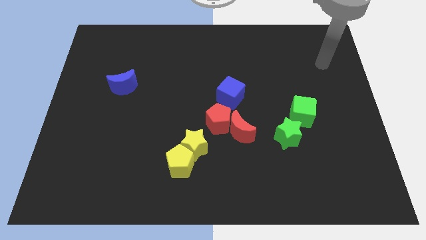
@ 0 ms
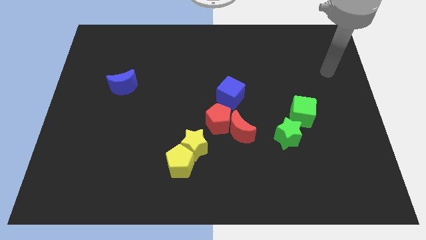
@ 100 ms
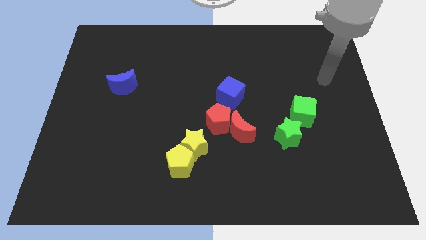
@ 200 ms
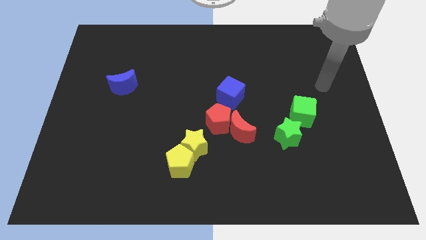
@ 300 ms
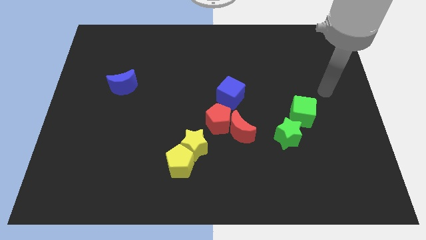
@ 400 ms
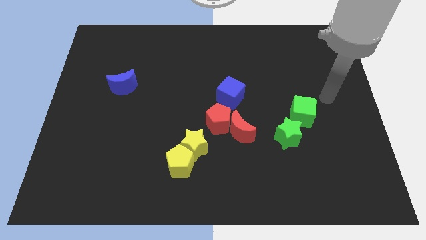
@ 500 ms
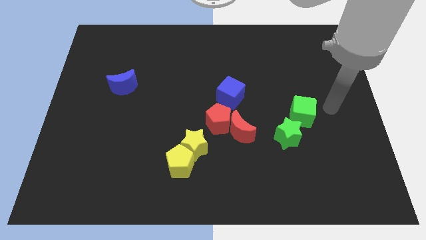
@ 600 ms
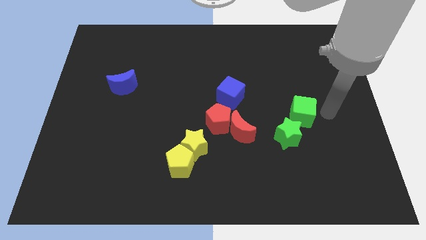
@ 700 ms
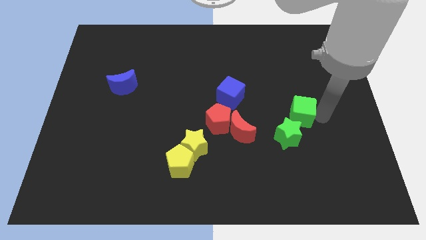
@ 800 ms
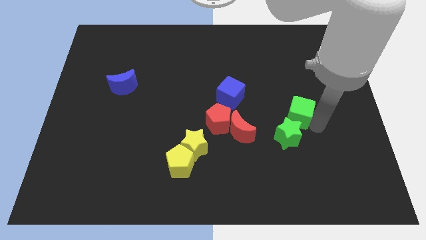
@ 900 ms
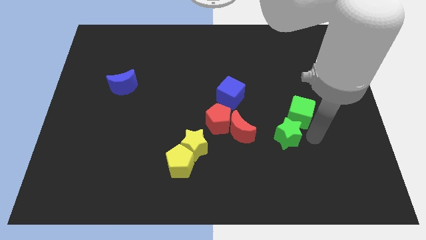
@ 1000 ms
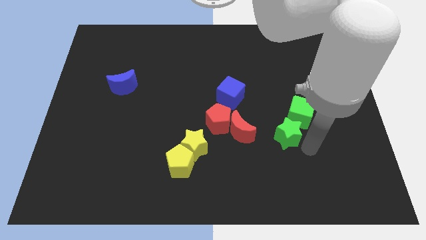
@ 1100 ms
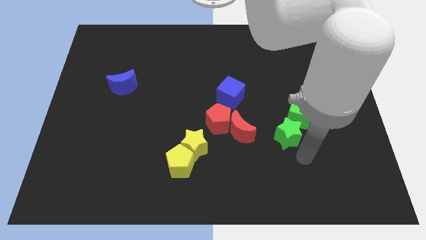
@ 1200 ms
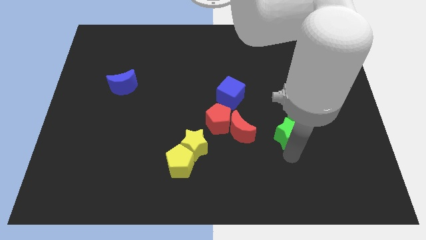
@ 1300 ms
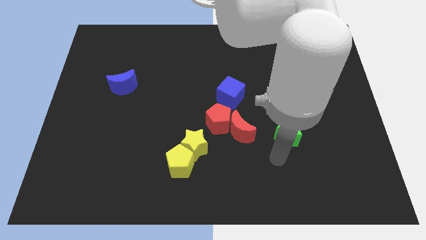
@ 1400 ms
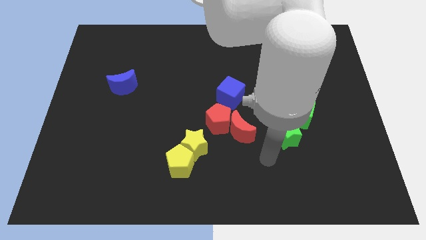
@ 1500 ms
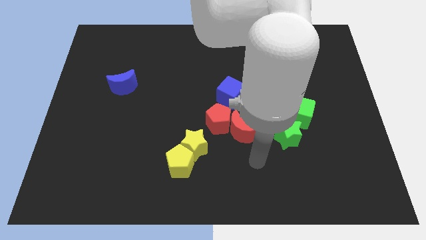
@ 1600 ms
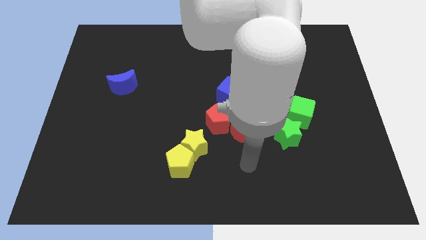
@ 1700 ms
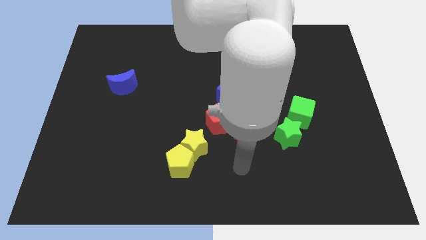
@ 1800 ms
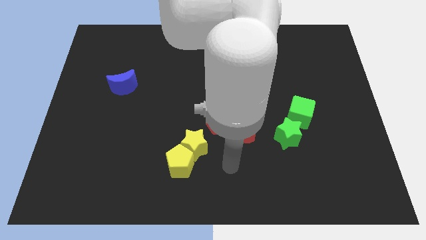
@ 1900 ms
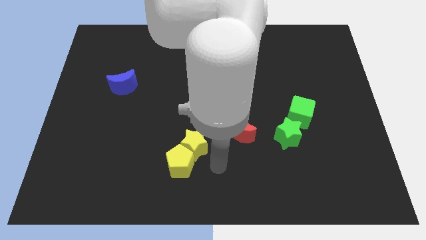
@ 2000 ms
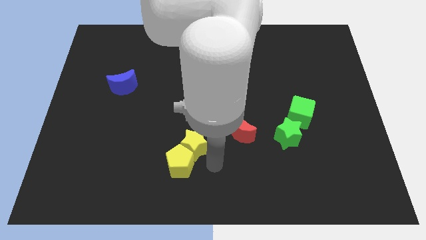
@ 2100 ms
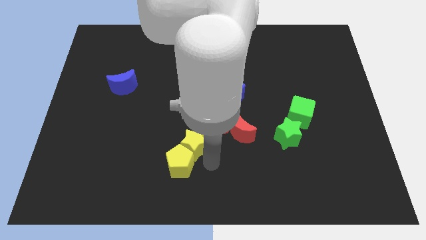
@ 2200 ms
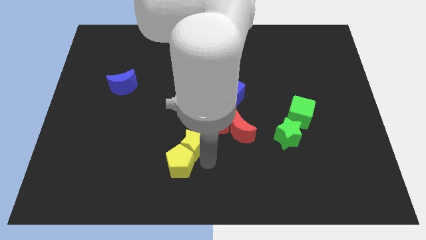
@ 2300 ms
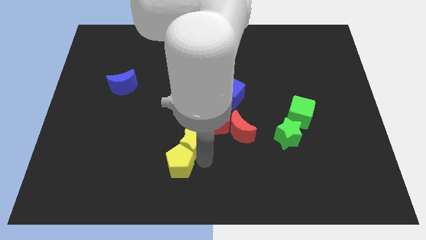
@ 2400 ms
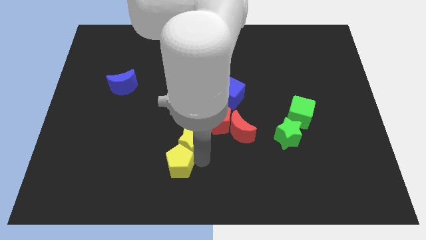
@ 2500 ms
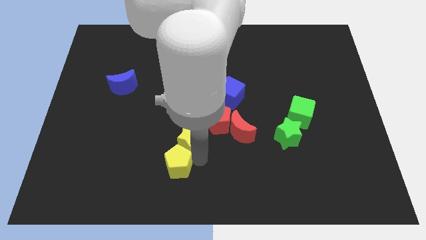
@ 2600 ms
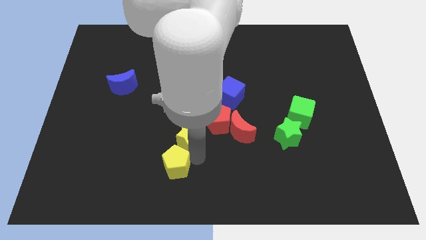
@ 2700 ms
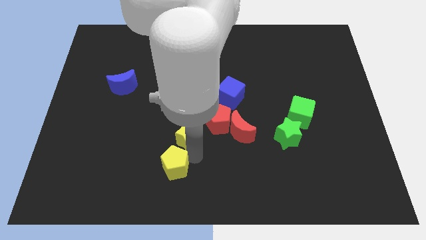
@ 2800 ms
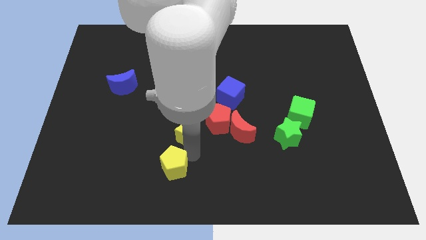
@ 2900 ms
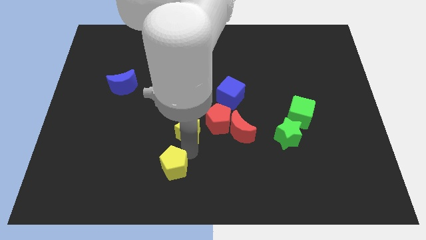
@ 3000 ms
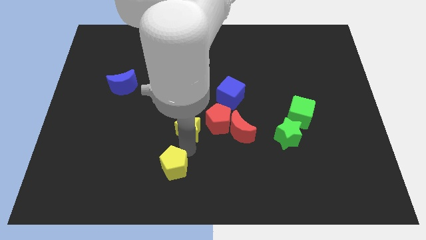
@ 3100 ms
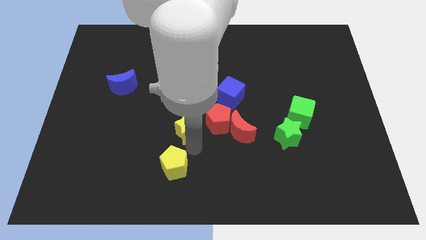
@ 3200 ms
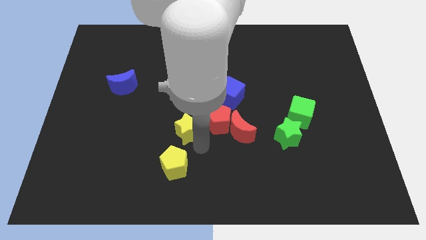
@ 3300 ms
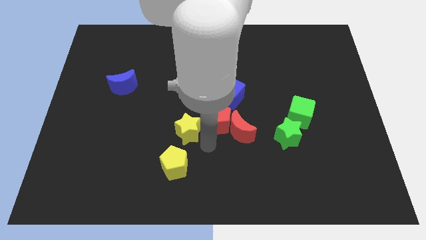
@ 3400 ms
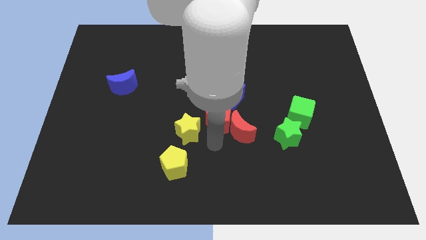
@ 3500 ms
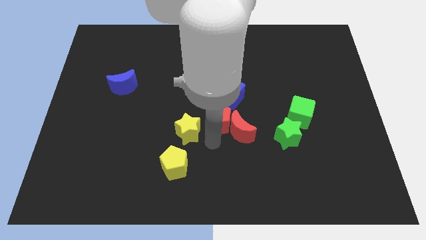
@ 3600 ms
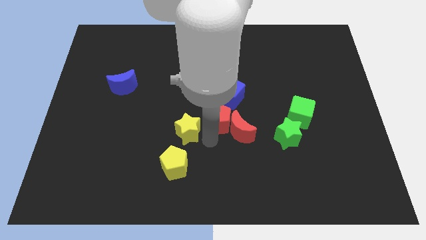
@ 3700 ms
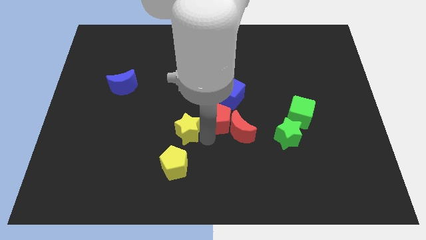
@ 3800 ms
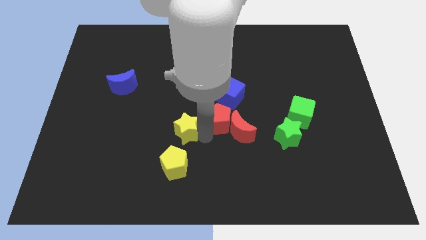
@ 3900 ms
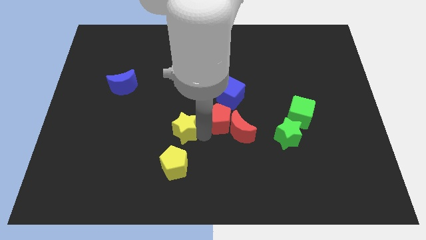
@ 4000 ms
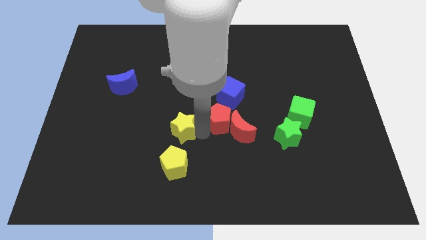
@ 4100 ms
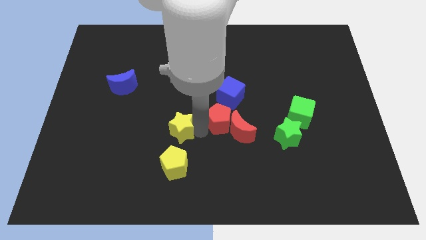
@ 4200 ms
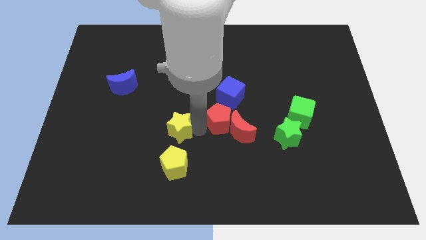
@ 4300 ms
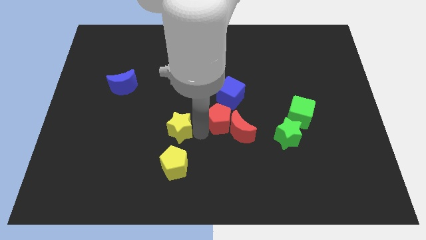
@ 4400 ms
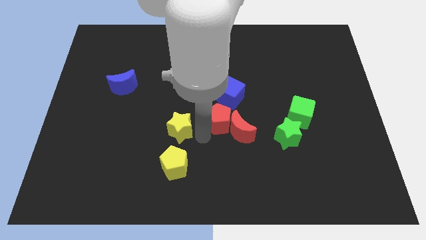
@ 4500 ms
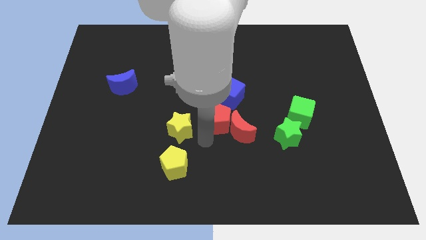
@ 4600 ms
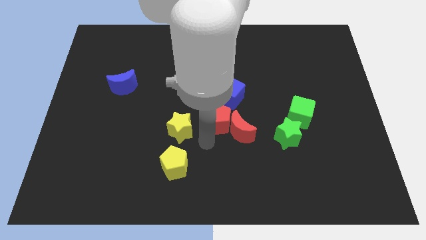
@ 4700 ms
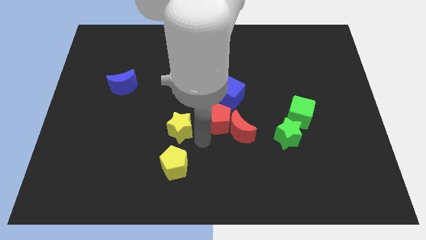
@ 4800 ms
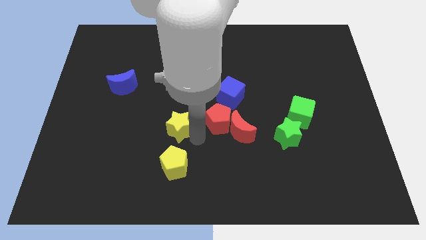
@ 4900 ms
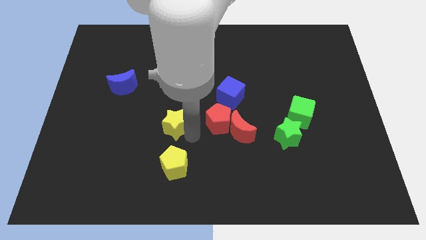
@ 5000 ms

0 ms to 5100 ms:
move the yellow star upwards and to the left diagonally a bit

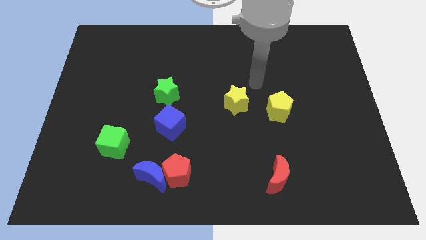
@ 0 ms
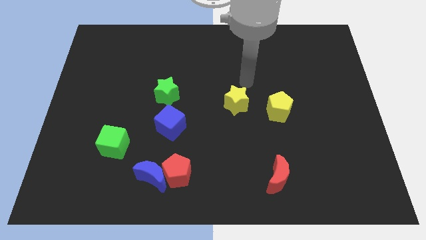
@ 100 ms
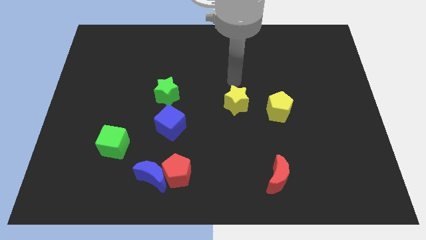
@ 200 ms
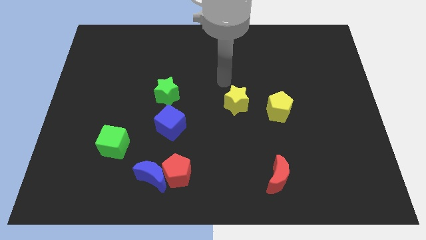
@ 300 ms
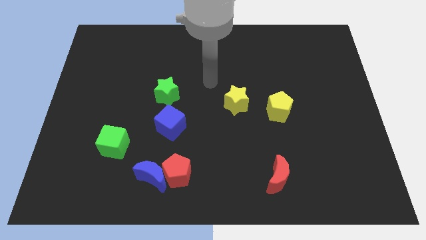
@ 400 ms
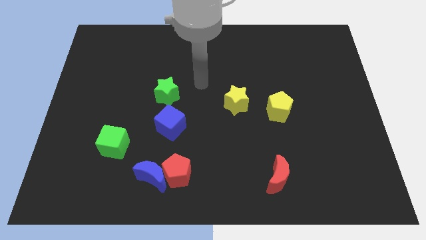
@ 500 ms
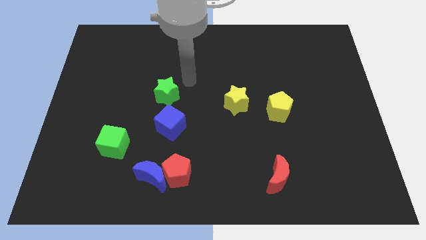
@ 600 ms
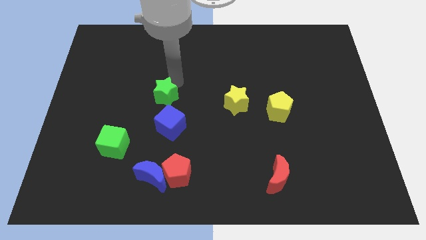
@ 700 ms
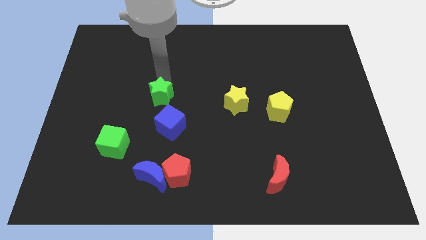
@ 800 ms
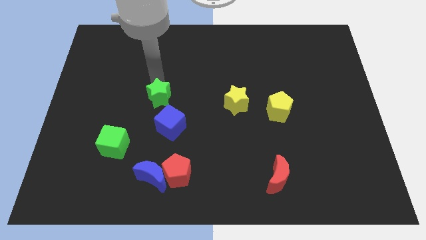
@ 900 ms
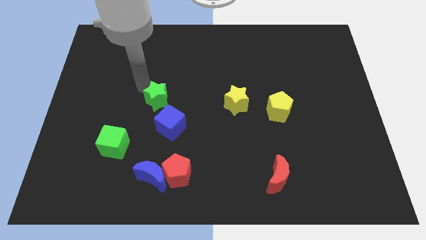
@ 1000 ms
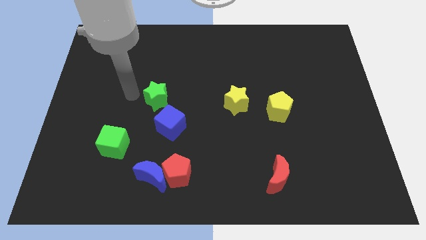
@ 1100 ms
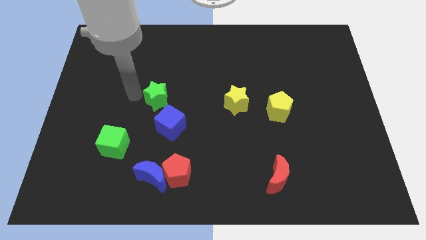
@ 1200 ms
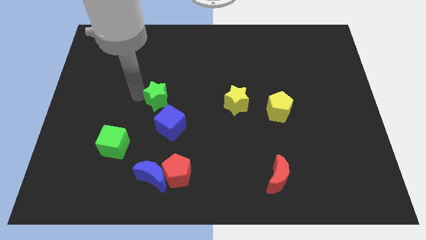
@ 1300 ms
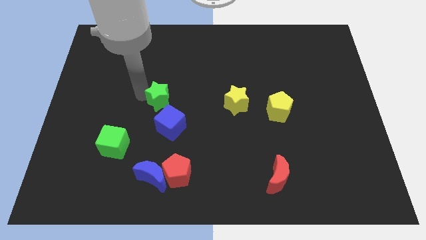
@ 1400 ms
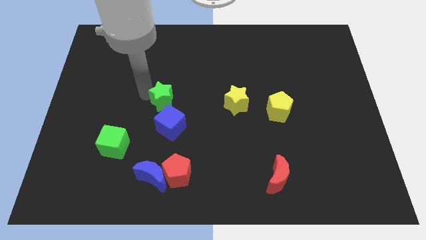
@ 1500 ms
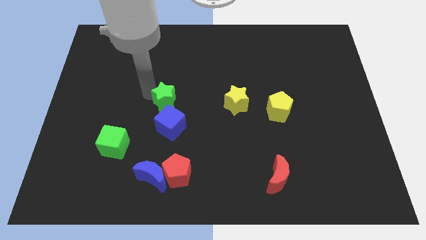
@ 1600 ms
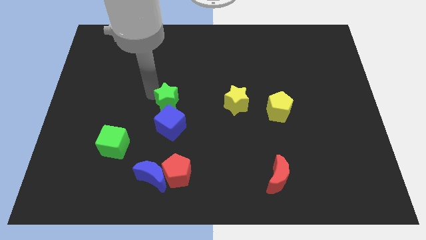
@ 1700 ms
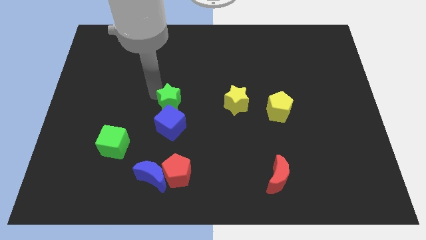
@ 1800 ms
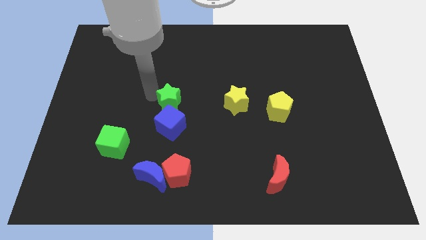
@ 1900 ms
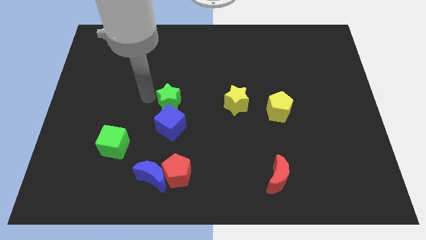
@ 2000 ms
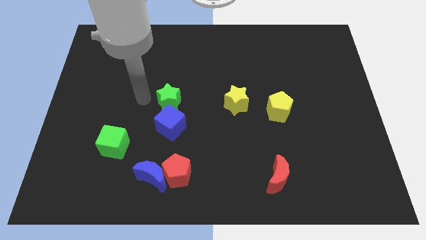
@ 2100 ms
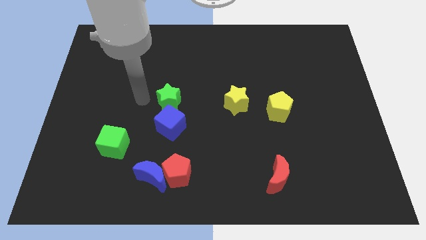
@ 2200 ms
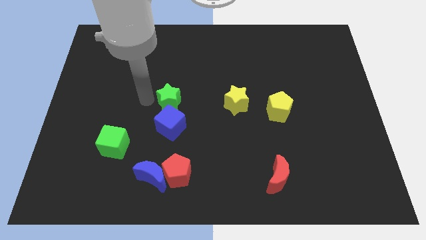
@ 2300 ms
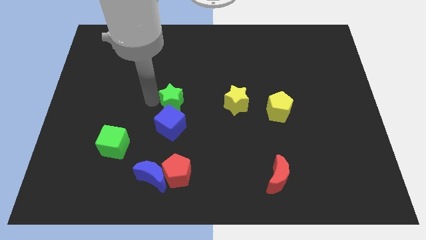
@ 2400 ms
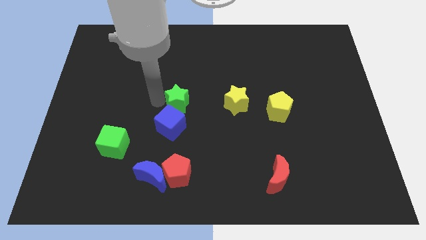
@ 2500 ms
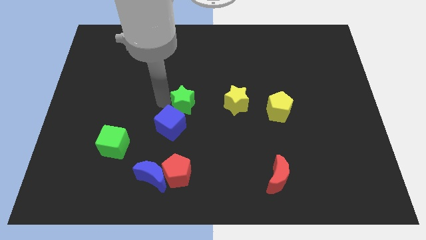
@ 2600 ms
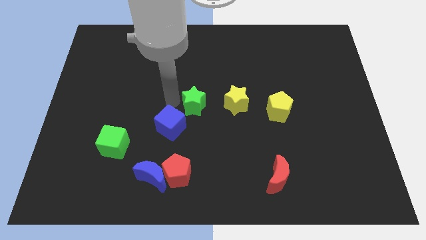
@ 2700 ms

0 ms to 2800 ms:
slide the green star slightly diagonally down and to the right

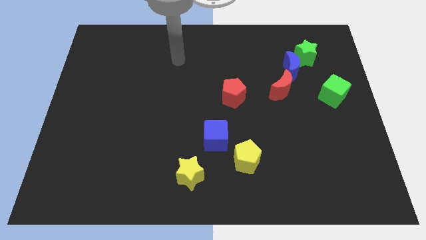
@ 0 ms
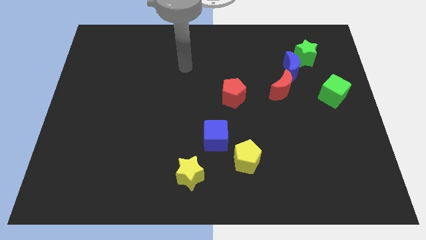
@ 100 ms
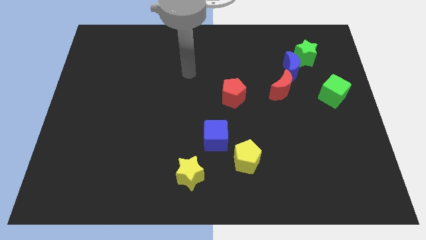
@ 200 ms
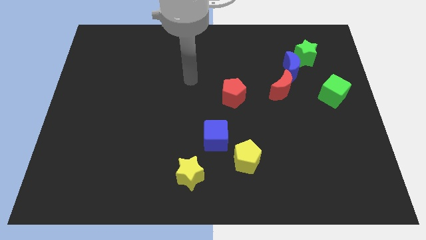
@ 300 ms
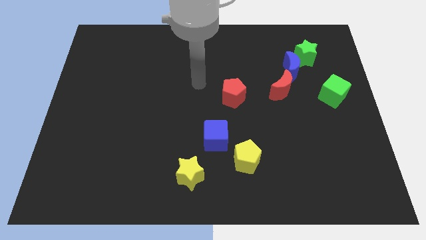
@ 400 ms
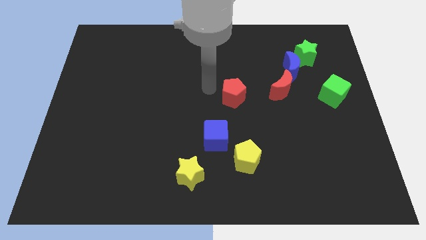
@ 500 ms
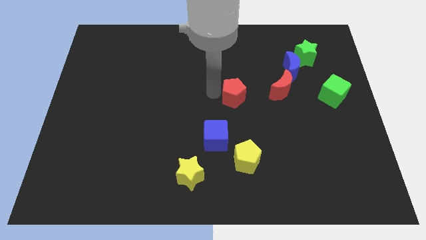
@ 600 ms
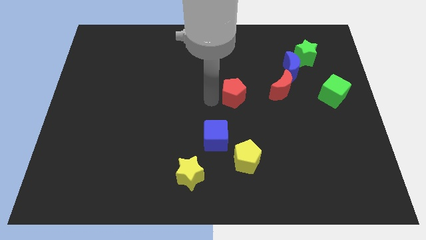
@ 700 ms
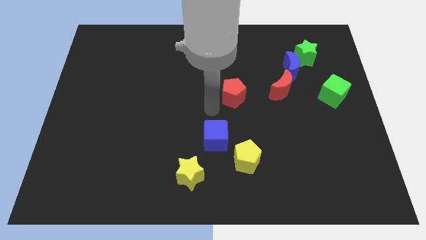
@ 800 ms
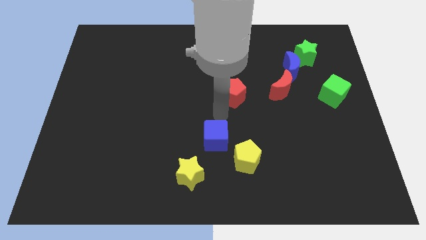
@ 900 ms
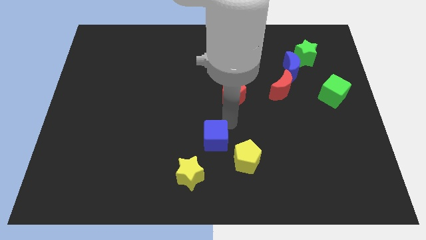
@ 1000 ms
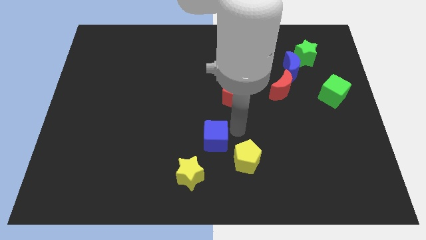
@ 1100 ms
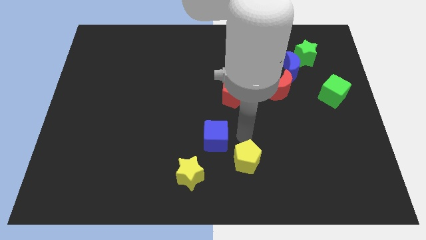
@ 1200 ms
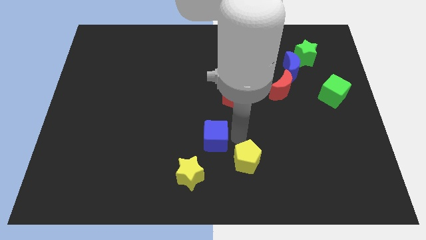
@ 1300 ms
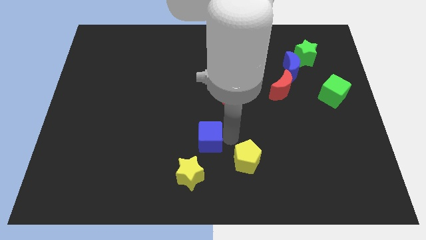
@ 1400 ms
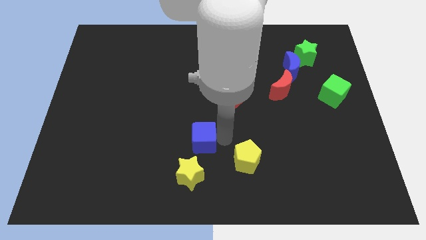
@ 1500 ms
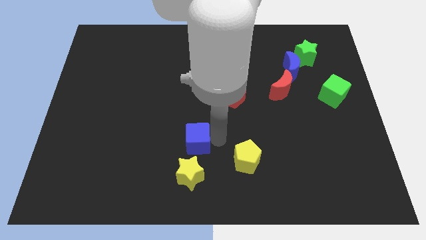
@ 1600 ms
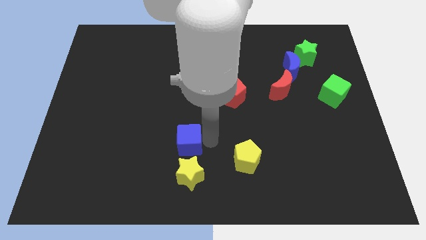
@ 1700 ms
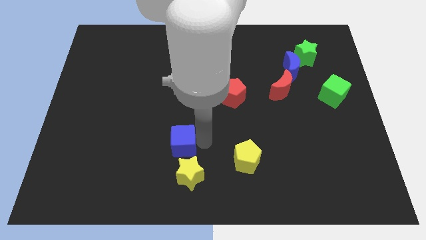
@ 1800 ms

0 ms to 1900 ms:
slightly slide the blue cube to the left
